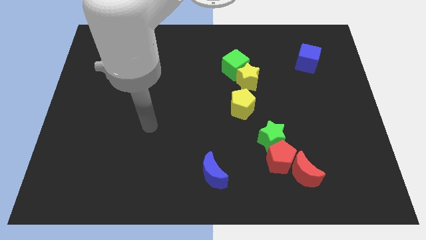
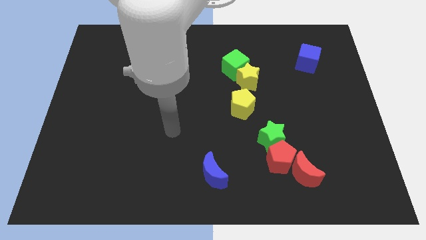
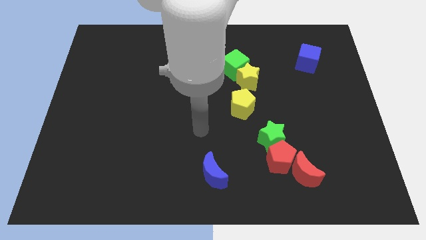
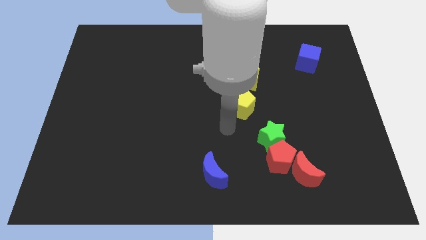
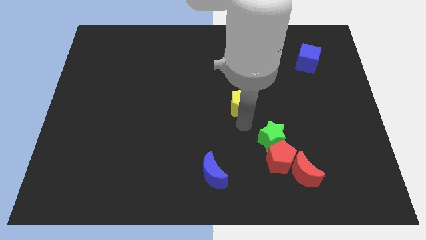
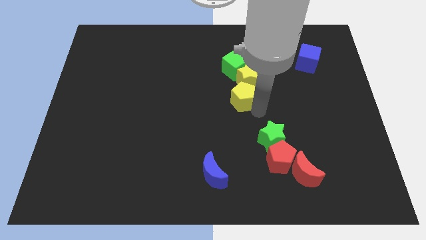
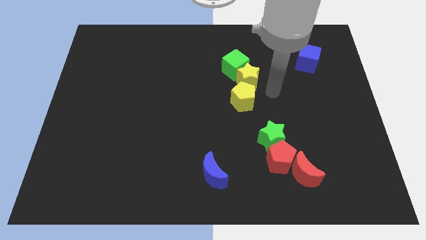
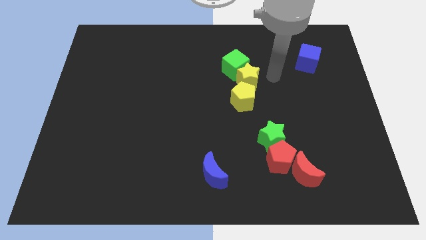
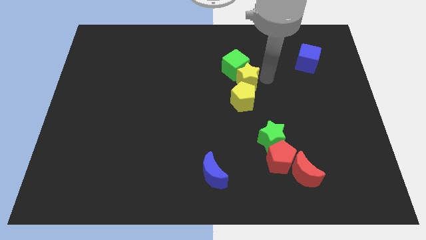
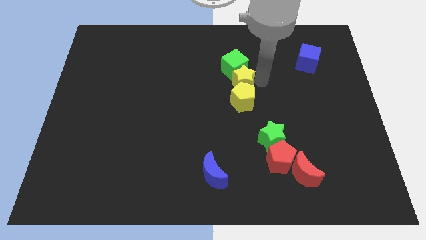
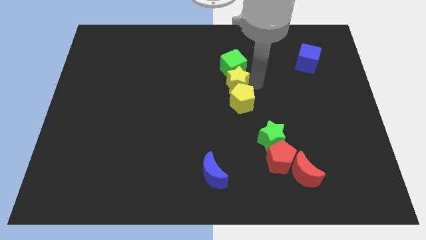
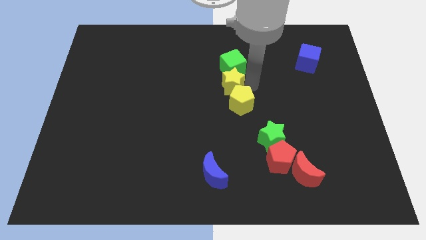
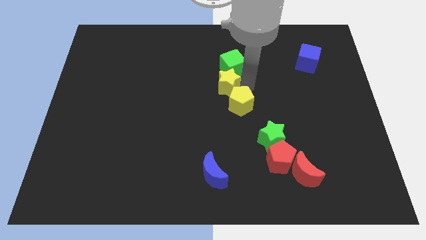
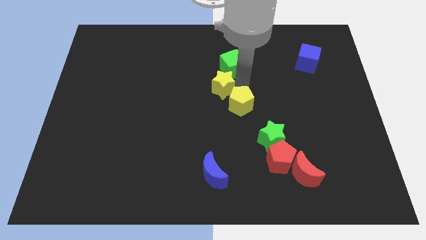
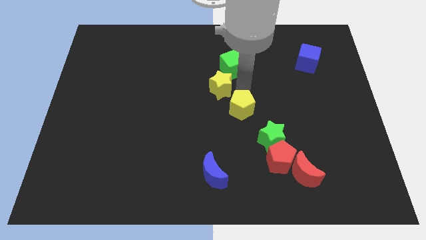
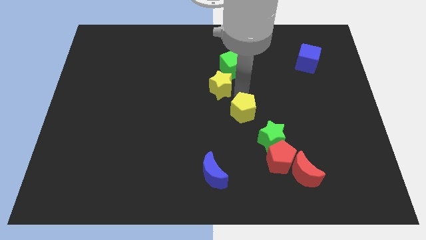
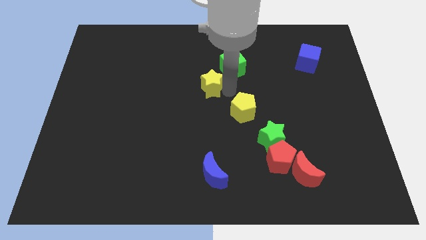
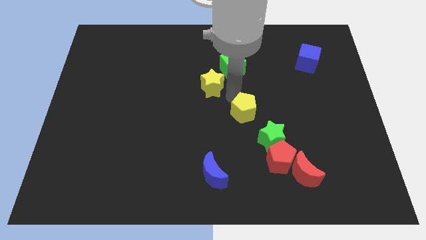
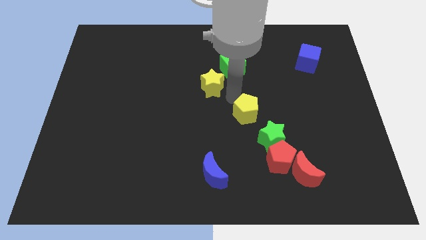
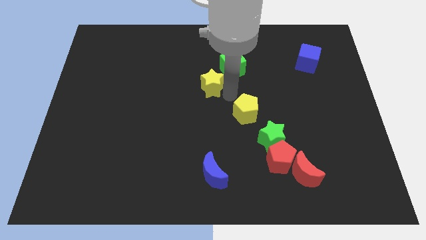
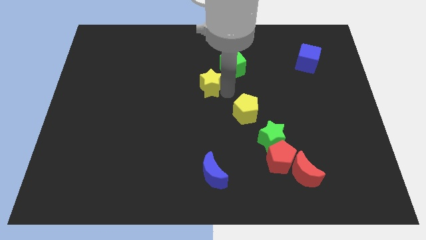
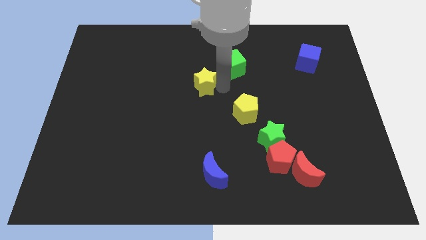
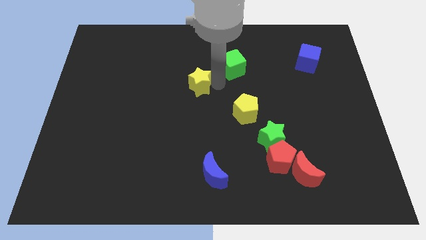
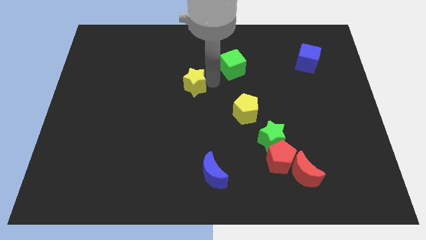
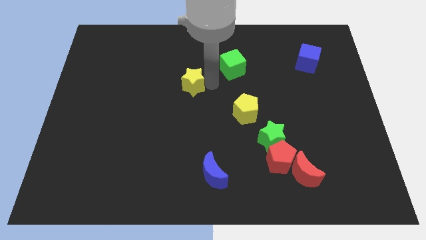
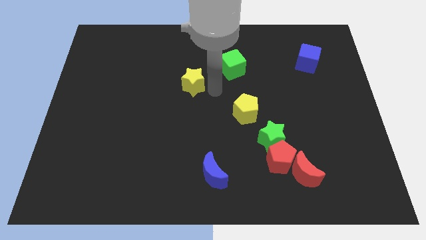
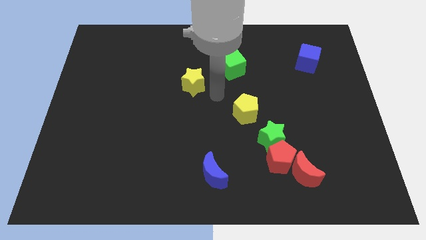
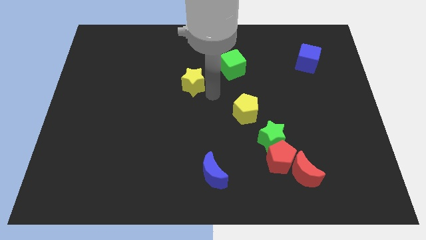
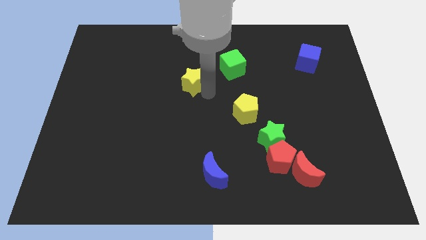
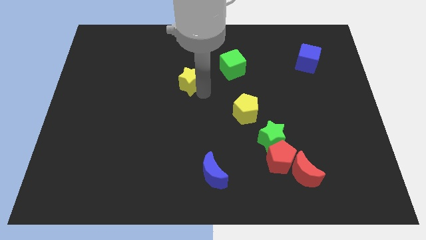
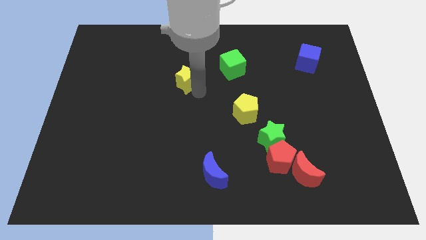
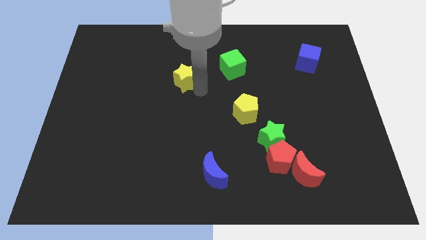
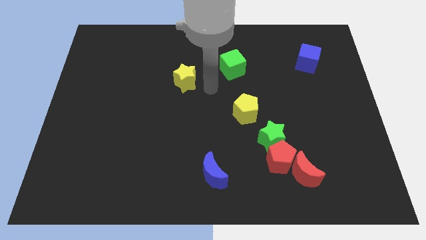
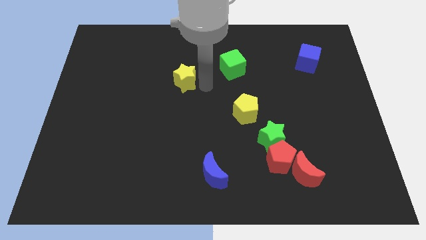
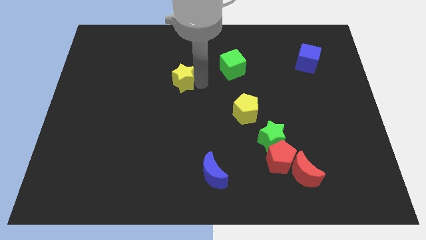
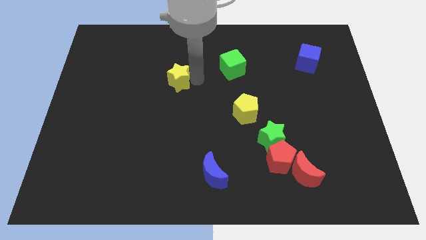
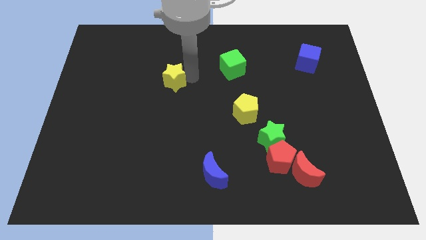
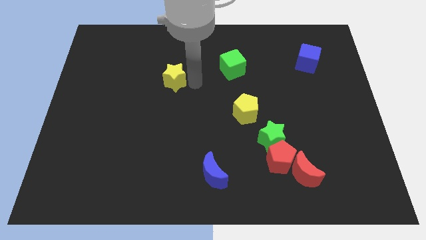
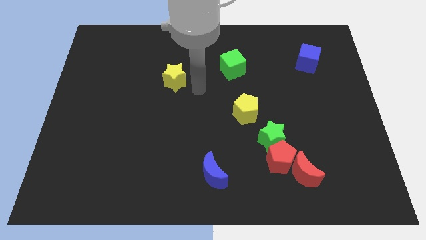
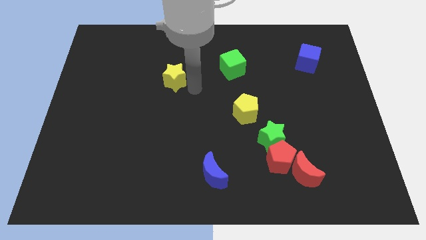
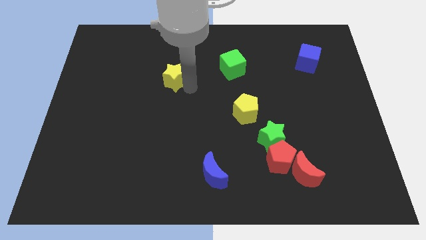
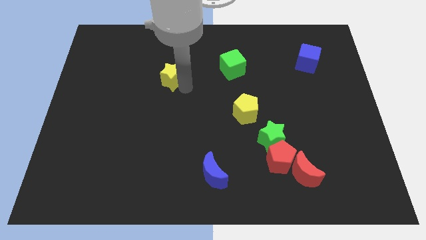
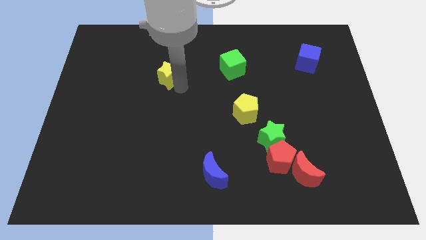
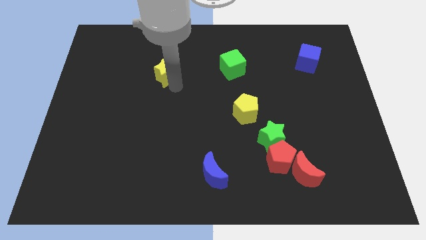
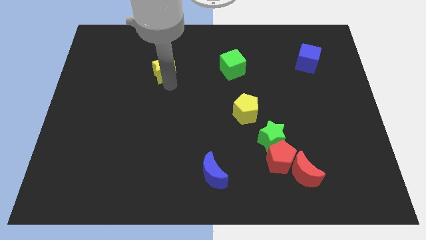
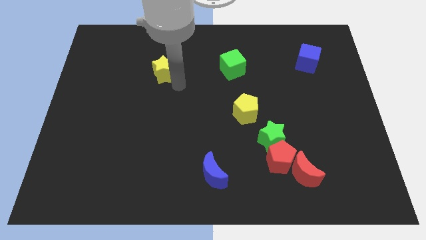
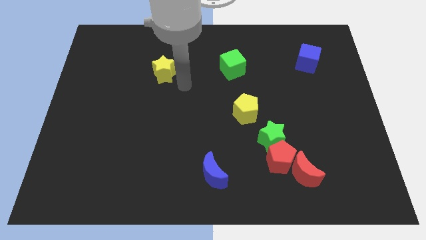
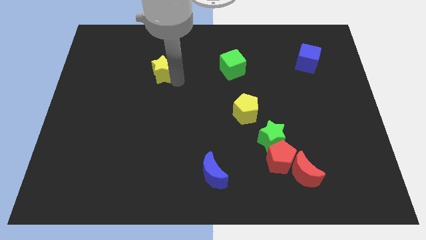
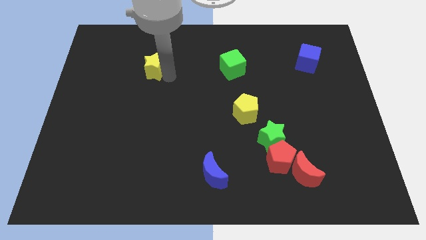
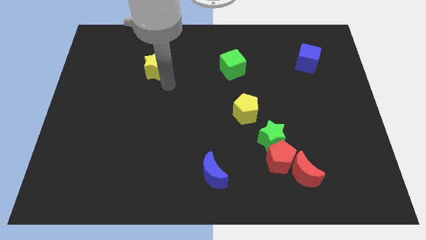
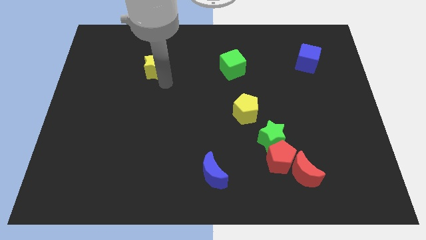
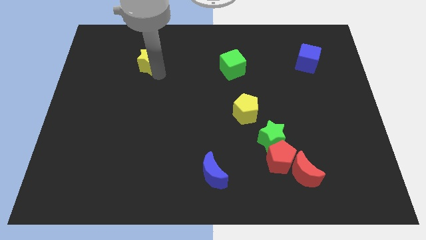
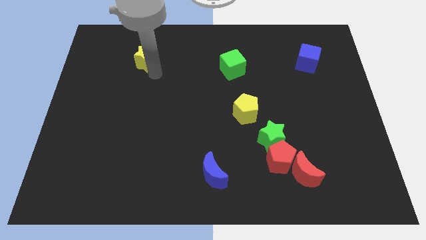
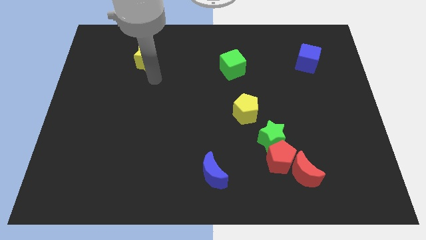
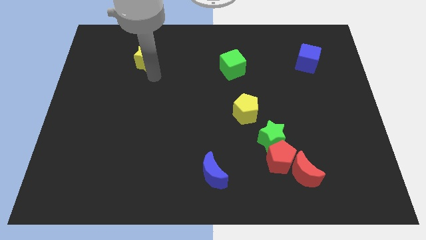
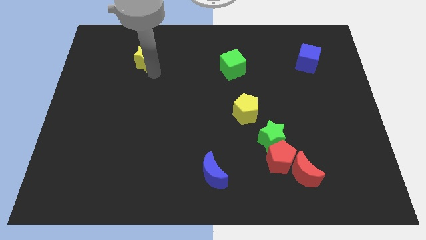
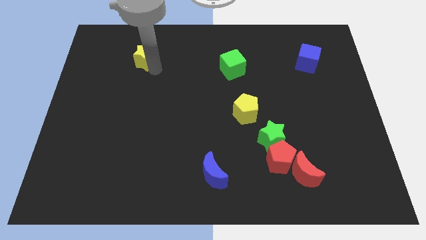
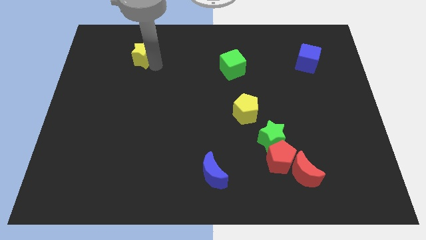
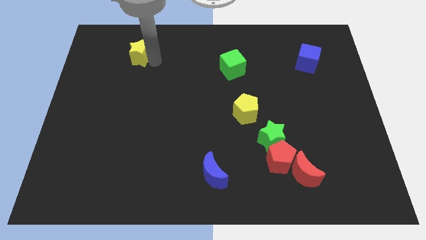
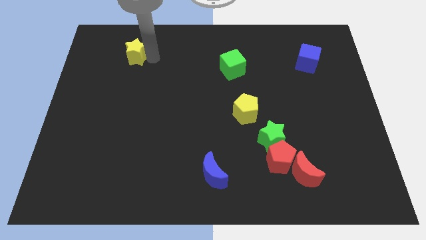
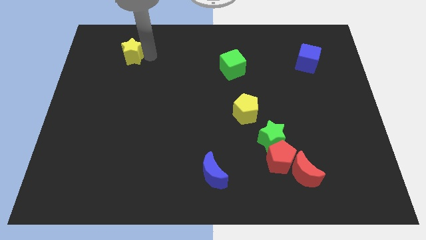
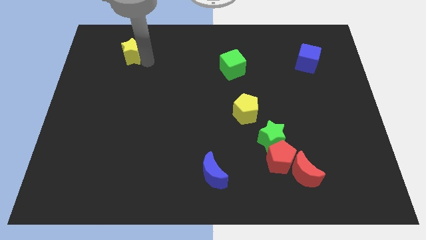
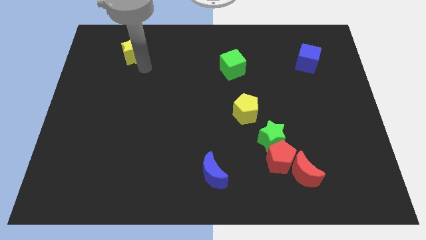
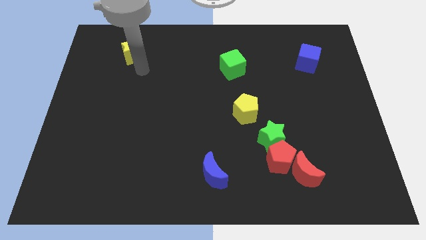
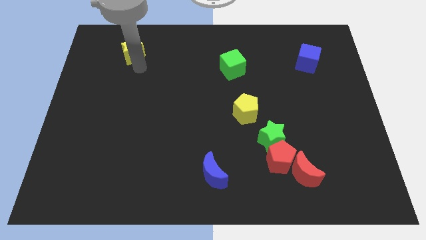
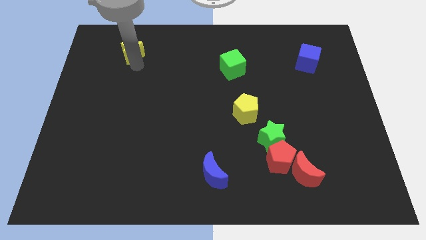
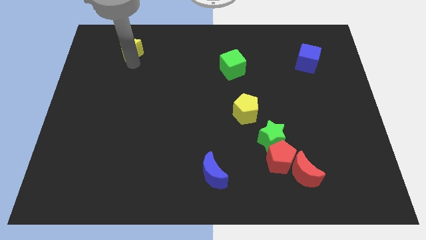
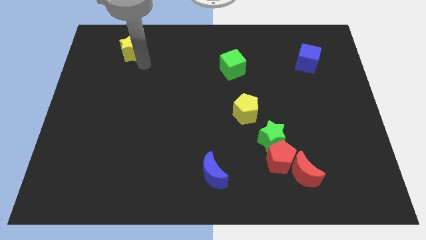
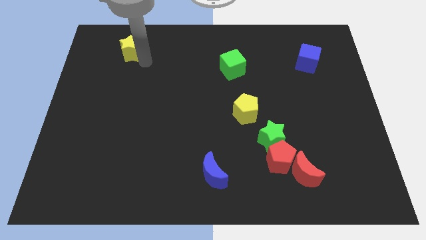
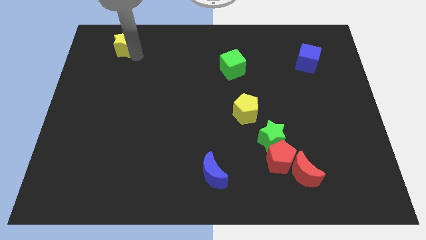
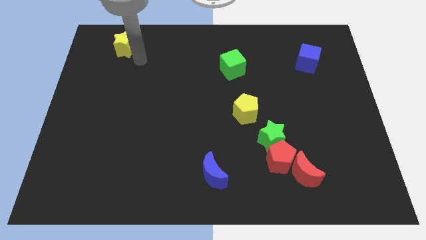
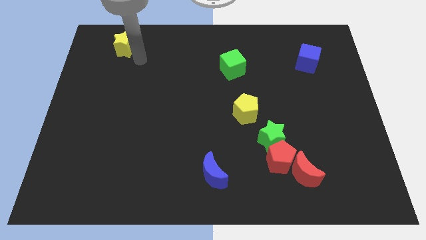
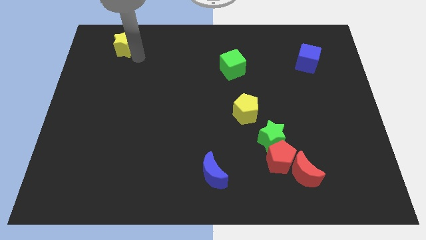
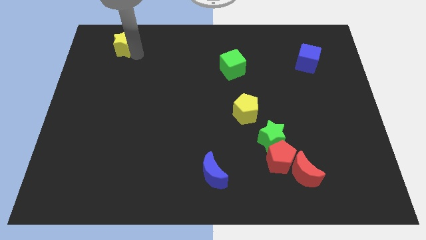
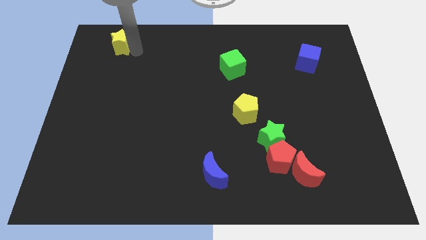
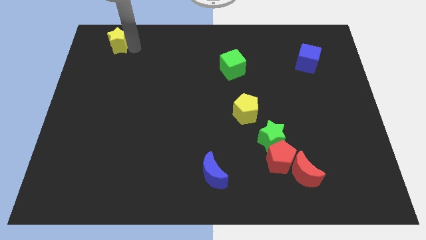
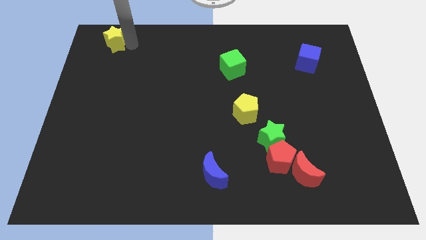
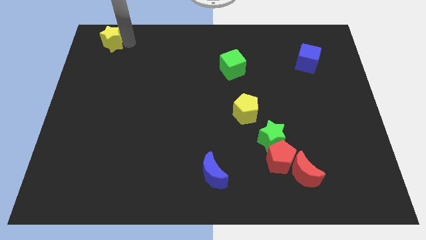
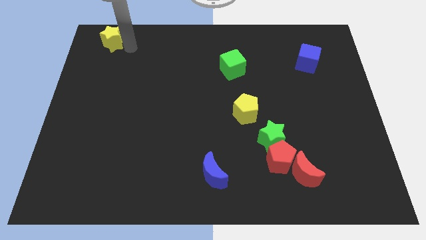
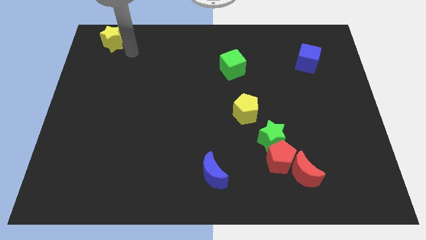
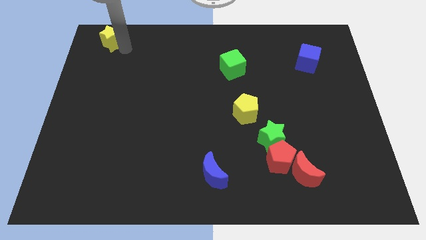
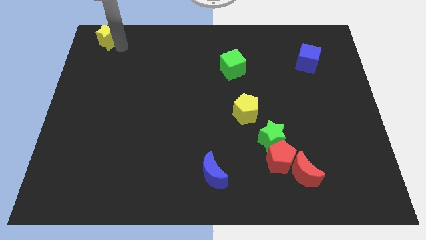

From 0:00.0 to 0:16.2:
put the yellow star to the upper left corner
